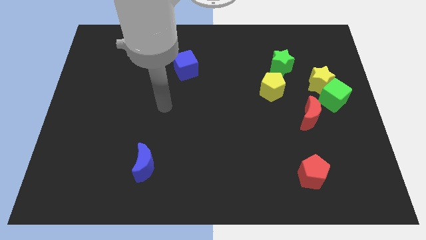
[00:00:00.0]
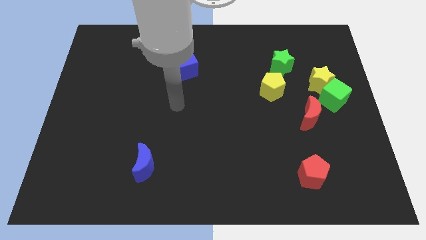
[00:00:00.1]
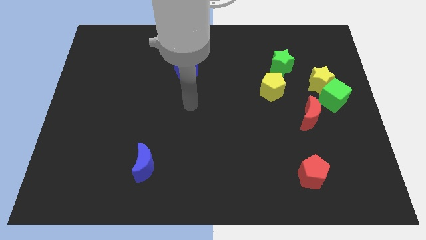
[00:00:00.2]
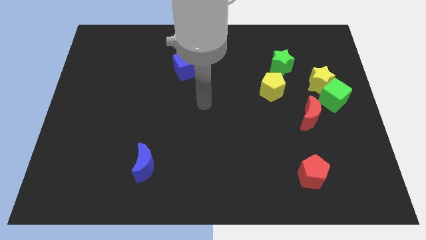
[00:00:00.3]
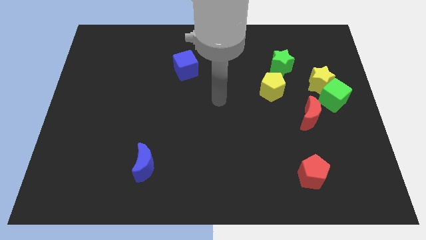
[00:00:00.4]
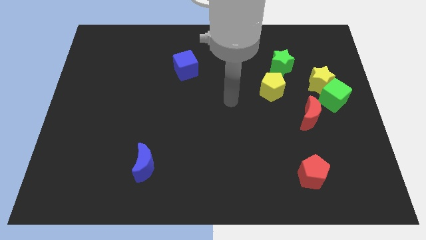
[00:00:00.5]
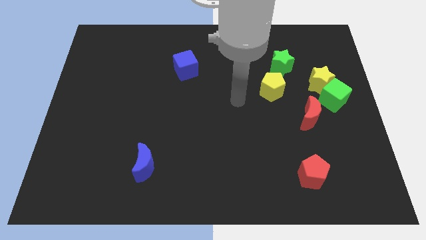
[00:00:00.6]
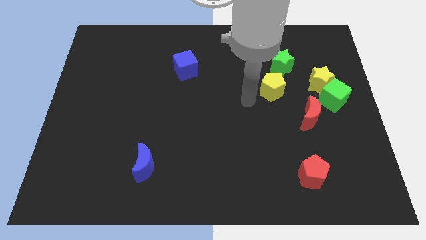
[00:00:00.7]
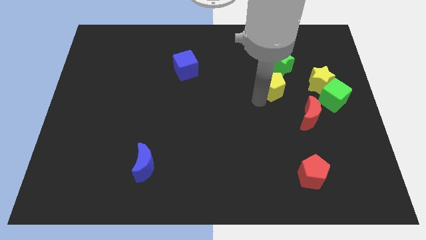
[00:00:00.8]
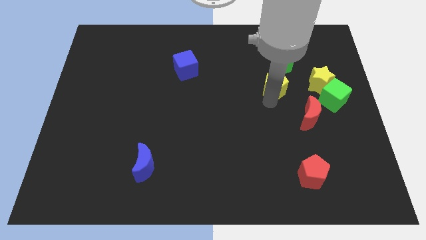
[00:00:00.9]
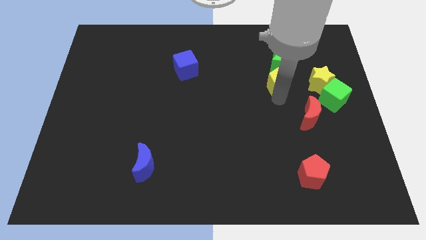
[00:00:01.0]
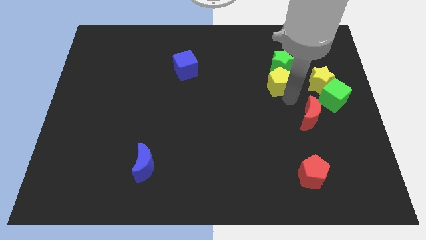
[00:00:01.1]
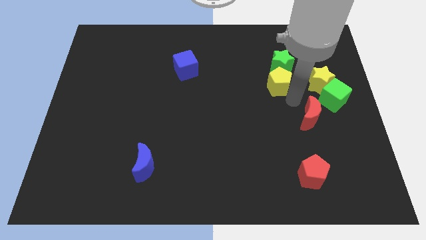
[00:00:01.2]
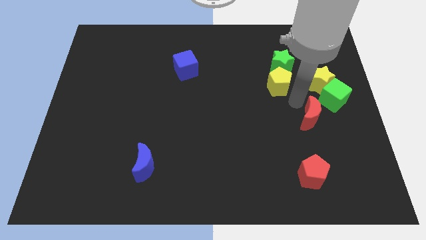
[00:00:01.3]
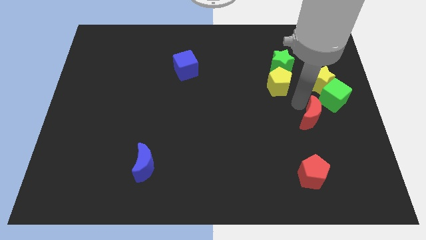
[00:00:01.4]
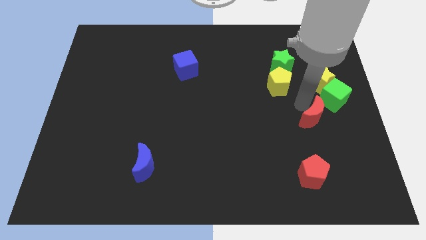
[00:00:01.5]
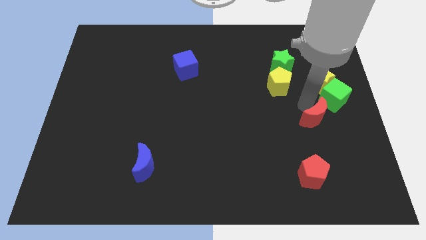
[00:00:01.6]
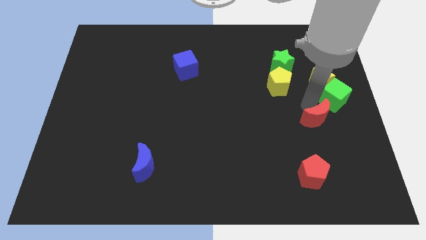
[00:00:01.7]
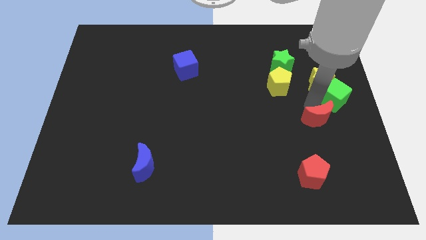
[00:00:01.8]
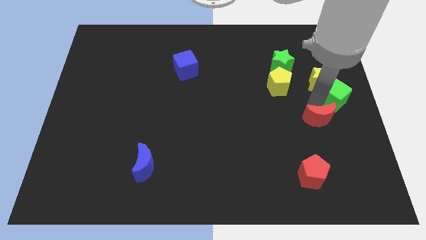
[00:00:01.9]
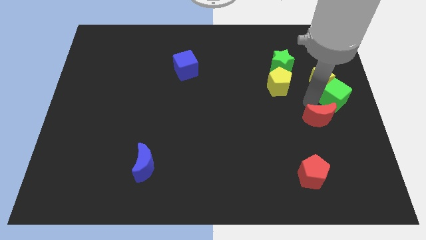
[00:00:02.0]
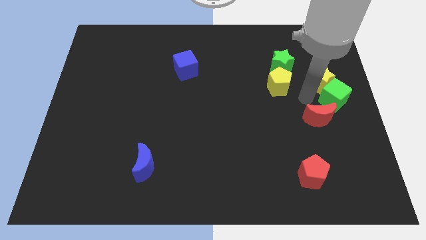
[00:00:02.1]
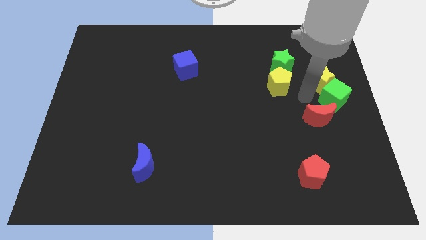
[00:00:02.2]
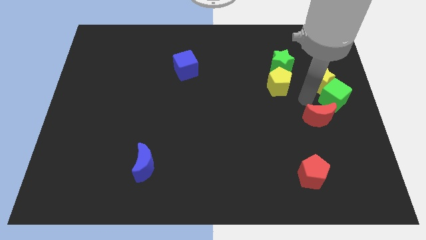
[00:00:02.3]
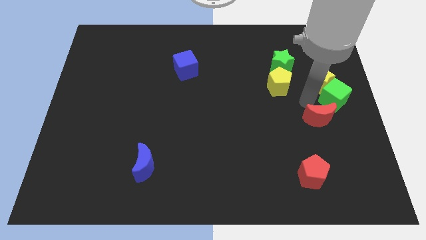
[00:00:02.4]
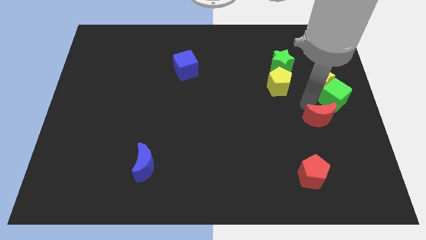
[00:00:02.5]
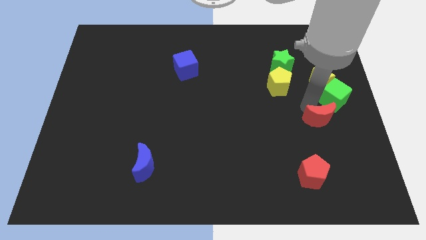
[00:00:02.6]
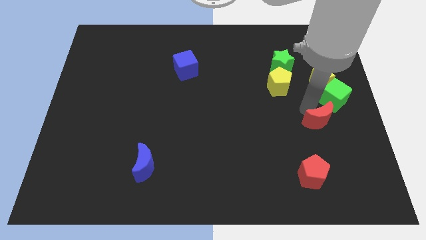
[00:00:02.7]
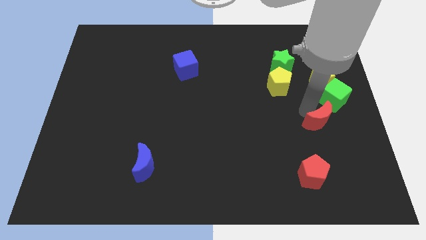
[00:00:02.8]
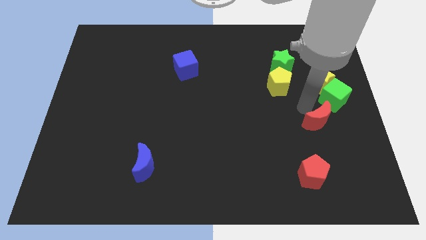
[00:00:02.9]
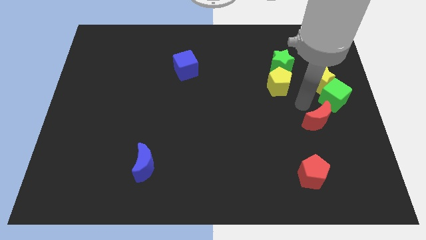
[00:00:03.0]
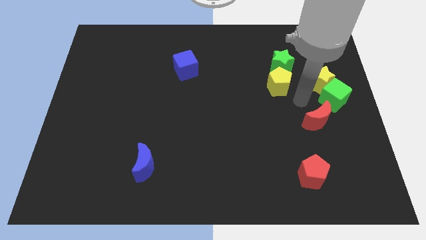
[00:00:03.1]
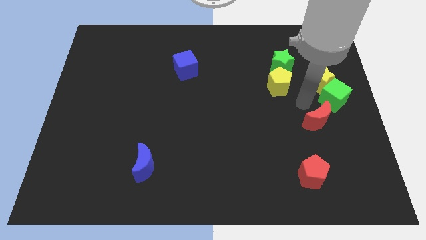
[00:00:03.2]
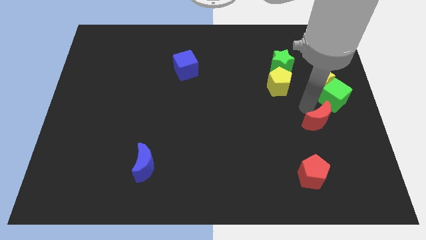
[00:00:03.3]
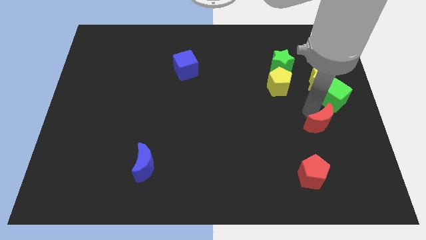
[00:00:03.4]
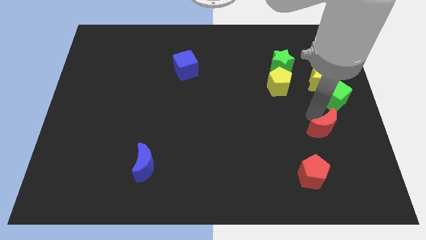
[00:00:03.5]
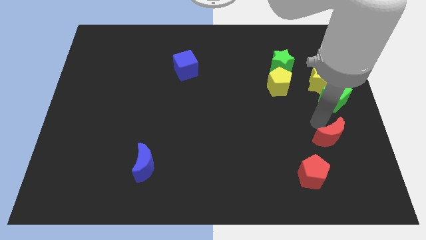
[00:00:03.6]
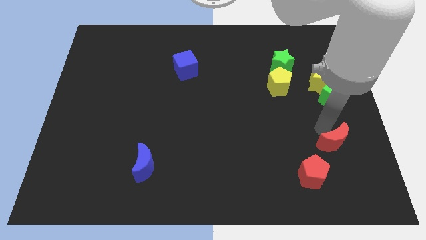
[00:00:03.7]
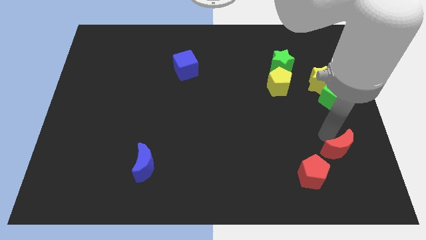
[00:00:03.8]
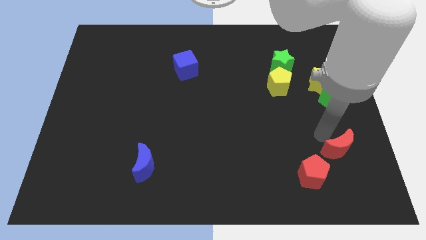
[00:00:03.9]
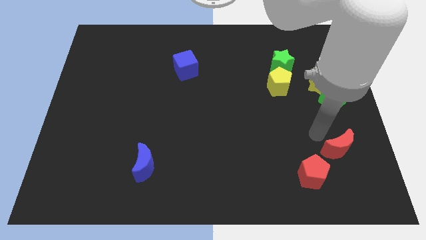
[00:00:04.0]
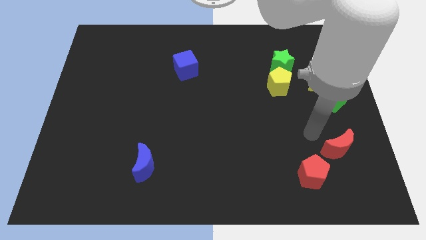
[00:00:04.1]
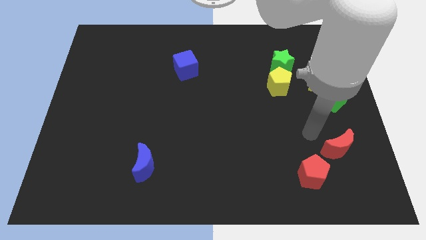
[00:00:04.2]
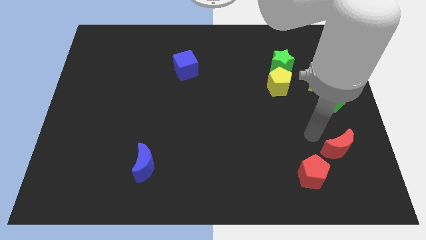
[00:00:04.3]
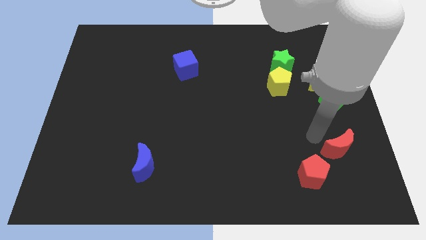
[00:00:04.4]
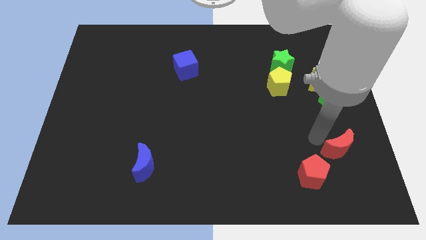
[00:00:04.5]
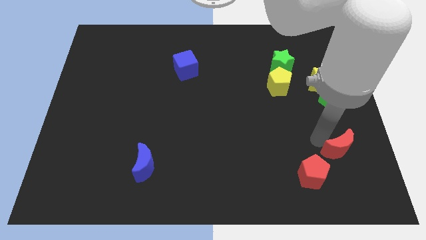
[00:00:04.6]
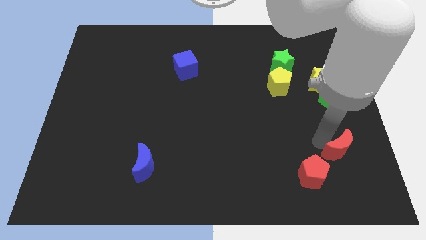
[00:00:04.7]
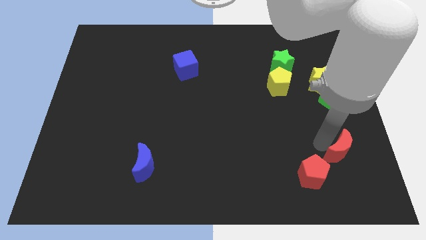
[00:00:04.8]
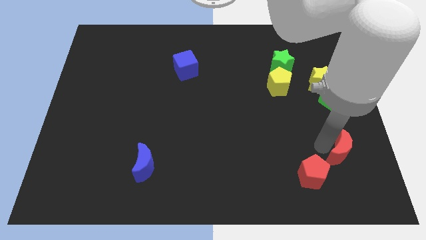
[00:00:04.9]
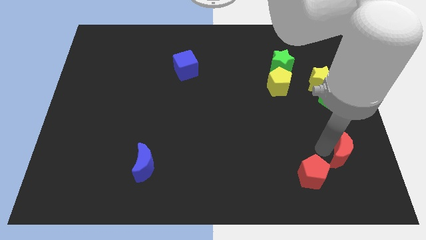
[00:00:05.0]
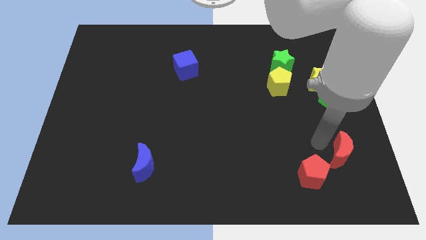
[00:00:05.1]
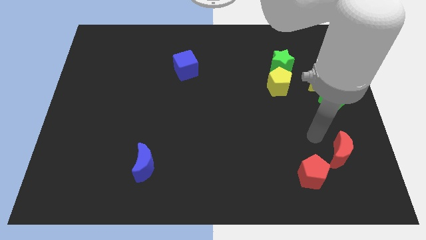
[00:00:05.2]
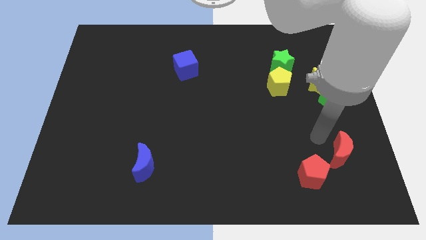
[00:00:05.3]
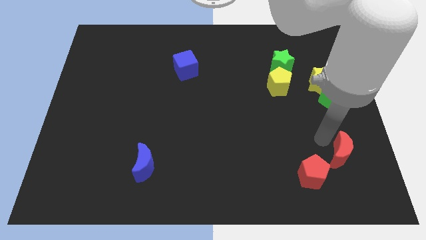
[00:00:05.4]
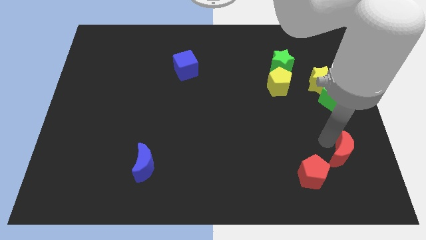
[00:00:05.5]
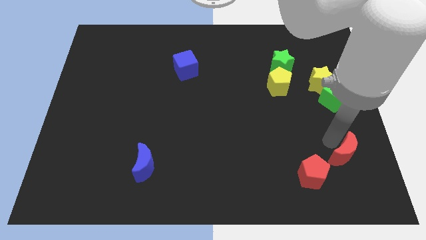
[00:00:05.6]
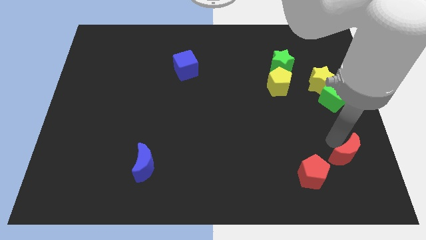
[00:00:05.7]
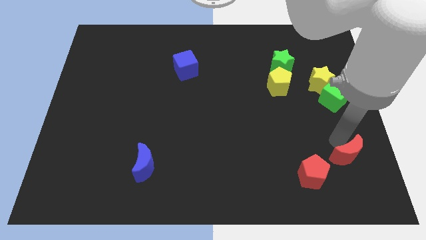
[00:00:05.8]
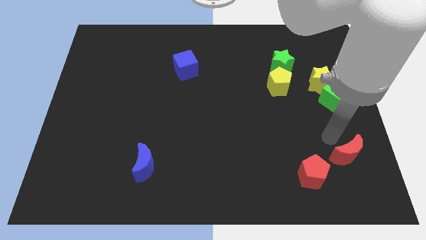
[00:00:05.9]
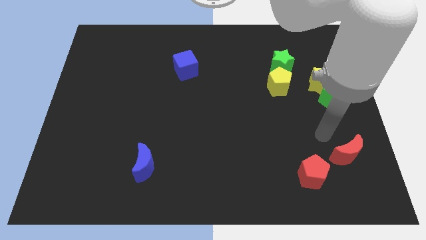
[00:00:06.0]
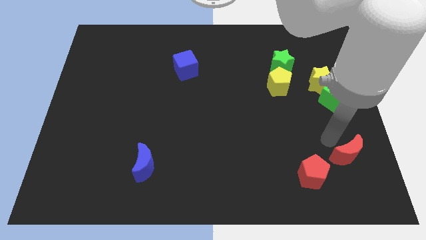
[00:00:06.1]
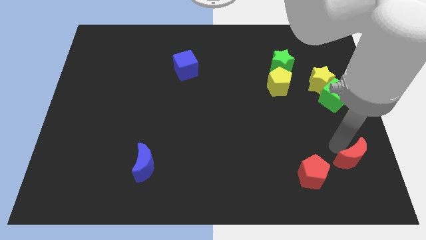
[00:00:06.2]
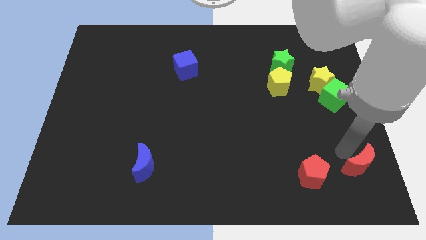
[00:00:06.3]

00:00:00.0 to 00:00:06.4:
move the red moon to the lower right corner

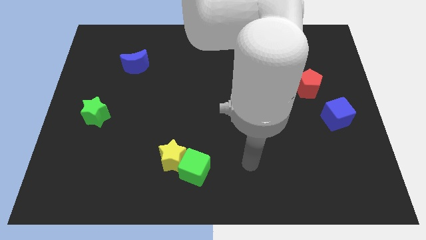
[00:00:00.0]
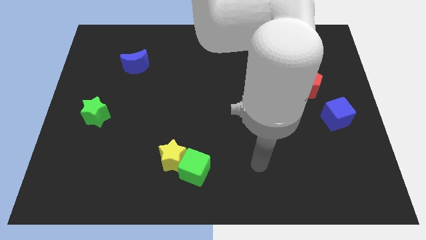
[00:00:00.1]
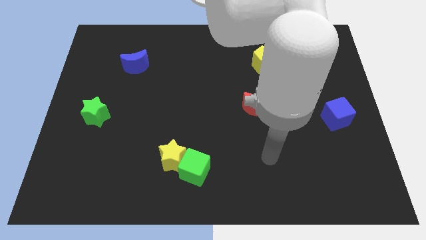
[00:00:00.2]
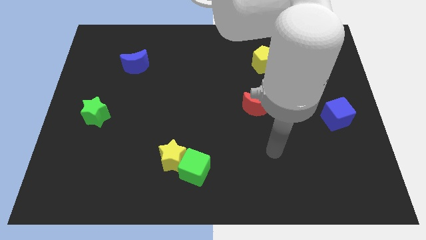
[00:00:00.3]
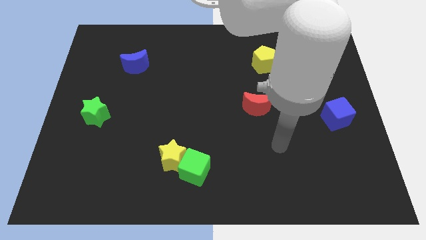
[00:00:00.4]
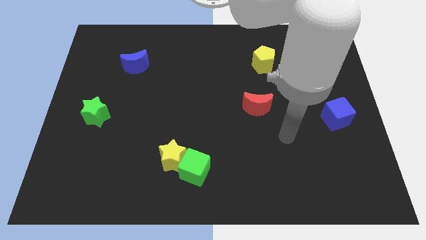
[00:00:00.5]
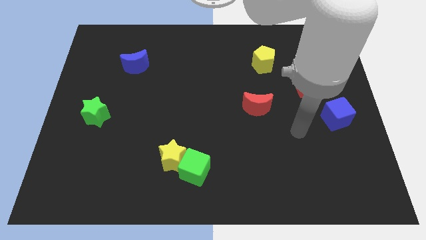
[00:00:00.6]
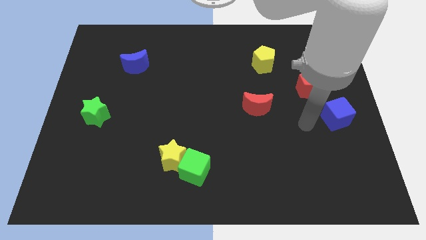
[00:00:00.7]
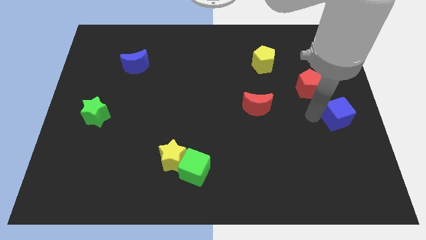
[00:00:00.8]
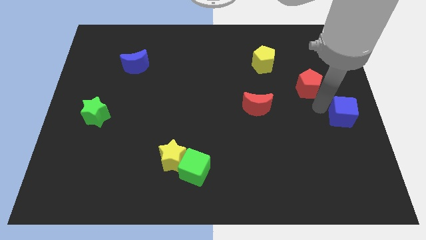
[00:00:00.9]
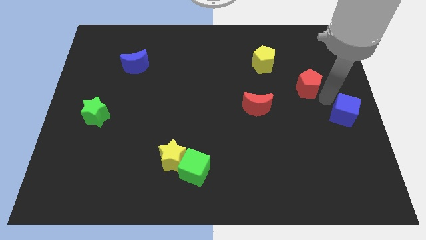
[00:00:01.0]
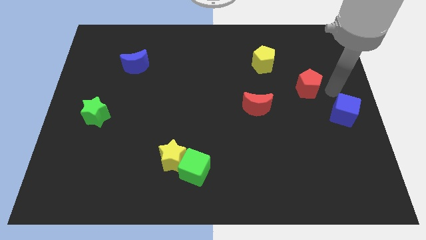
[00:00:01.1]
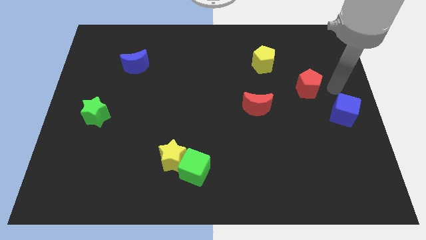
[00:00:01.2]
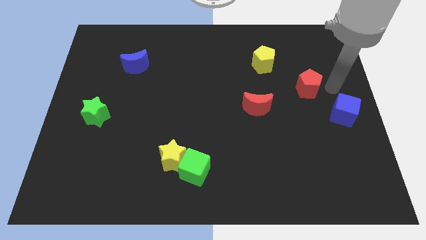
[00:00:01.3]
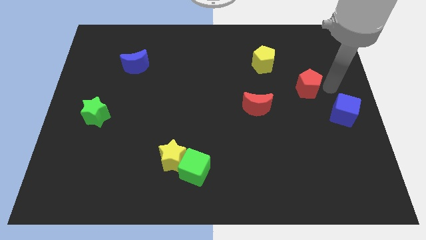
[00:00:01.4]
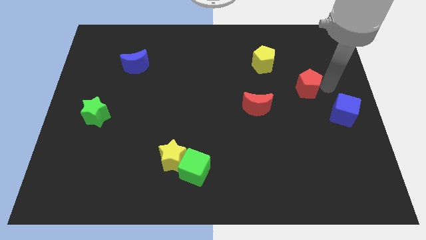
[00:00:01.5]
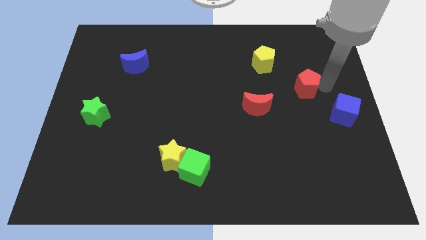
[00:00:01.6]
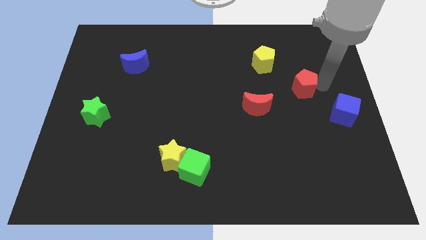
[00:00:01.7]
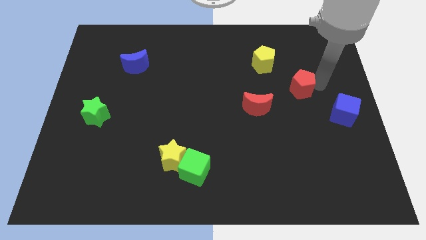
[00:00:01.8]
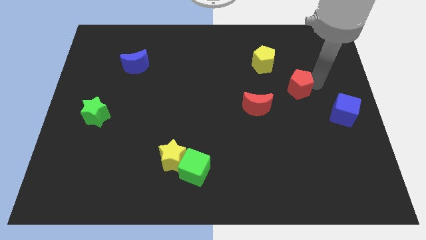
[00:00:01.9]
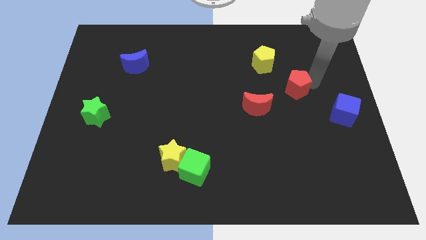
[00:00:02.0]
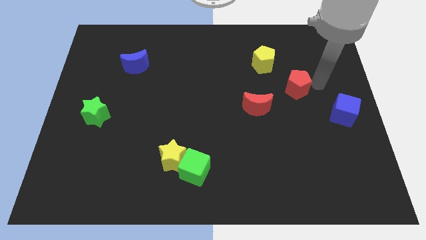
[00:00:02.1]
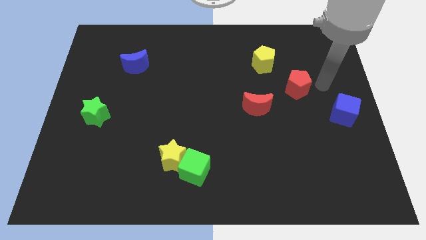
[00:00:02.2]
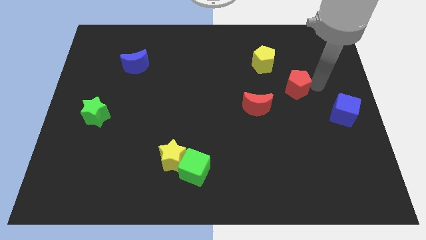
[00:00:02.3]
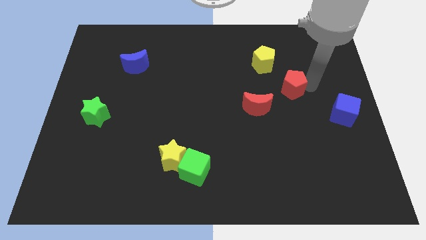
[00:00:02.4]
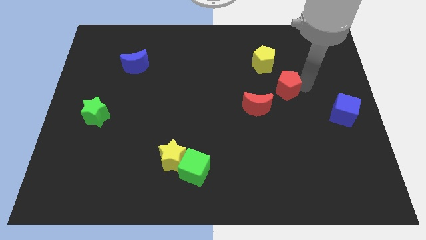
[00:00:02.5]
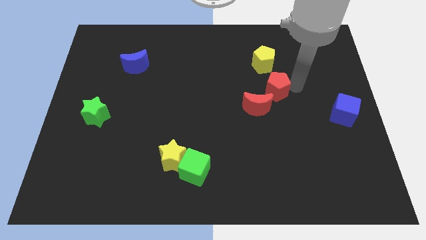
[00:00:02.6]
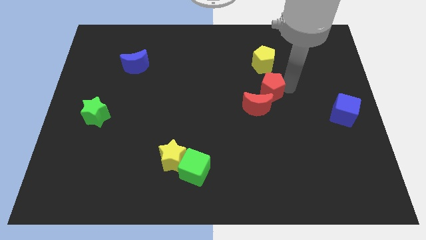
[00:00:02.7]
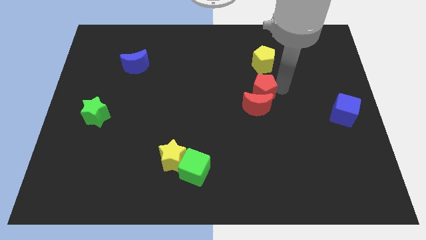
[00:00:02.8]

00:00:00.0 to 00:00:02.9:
put the red pentagon to the middle
